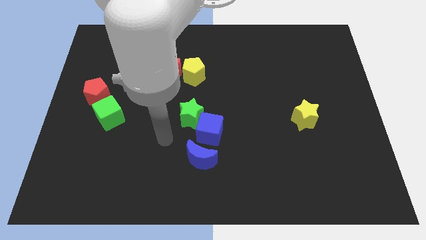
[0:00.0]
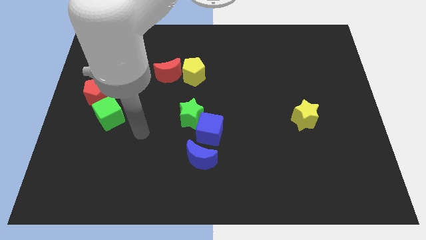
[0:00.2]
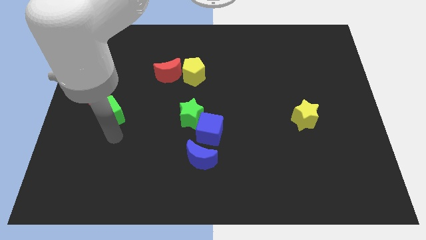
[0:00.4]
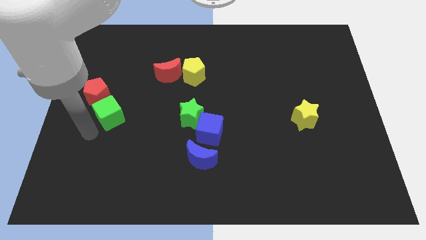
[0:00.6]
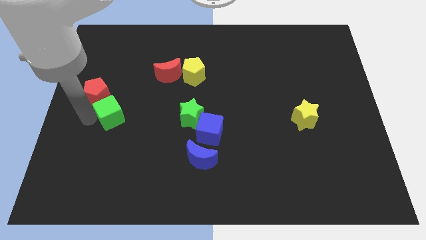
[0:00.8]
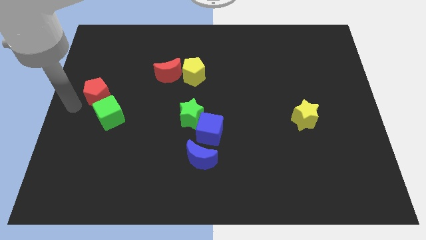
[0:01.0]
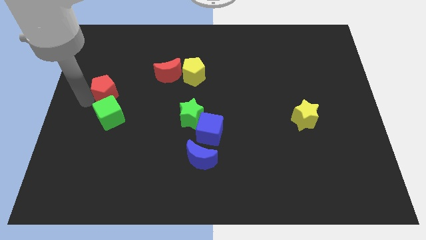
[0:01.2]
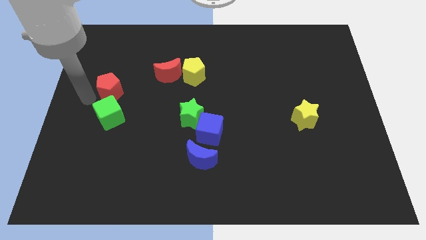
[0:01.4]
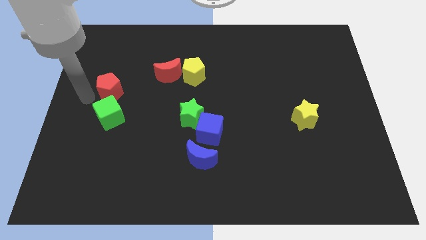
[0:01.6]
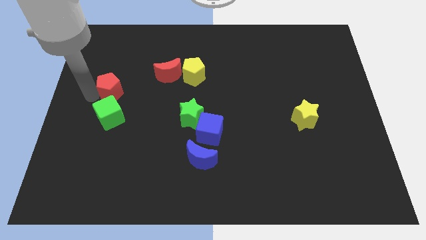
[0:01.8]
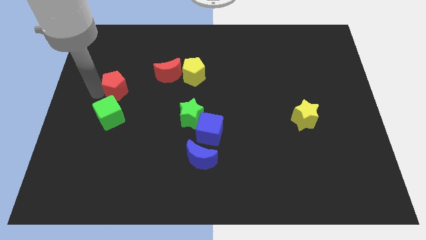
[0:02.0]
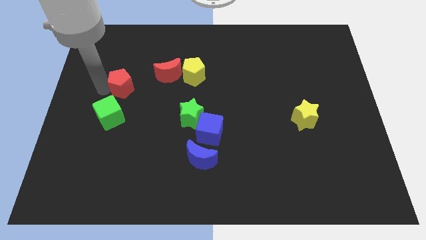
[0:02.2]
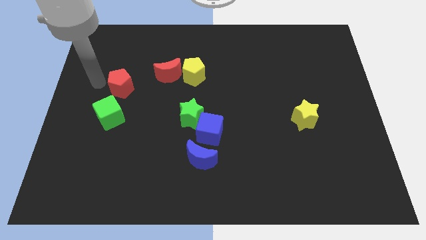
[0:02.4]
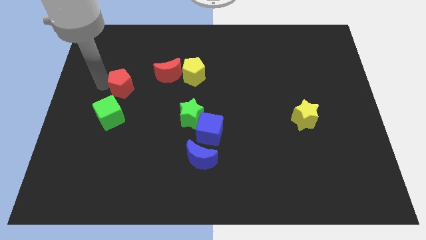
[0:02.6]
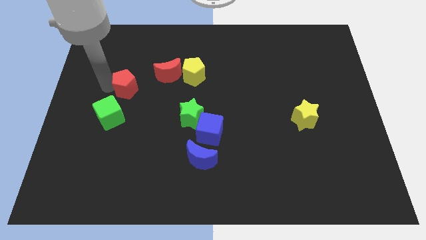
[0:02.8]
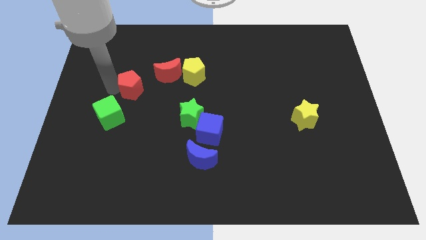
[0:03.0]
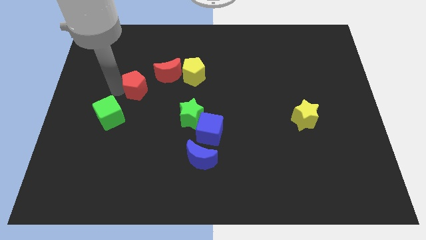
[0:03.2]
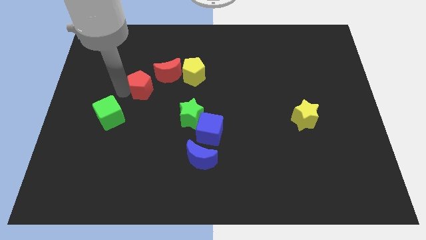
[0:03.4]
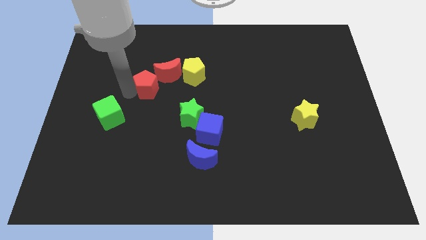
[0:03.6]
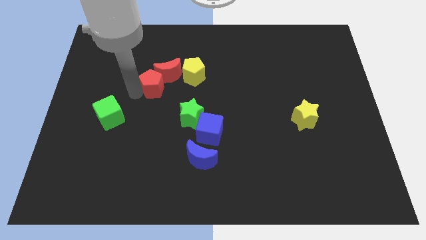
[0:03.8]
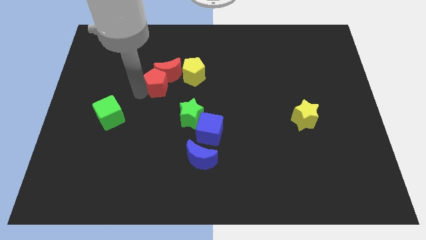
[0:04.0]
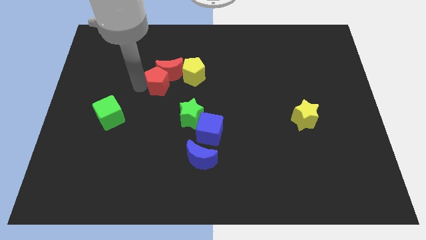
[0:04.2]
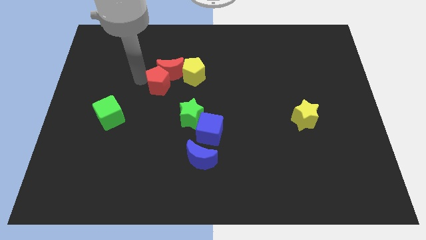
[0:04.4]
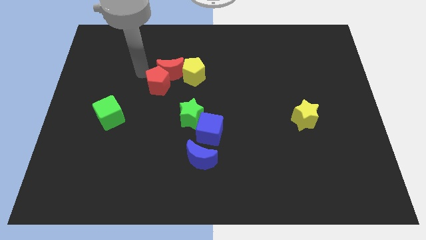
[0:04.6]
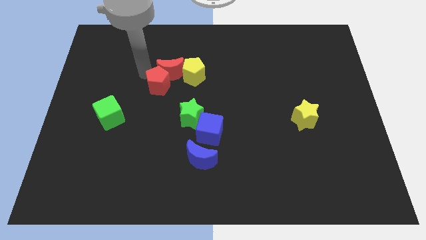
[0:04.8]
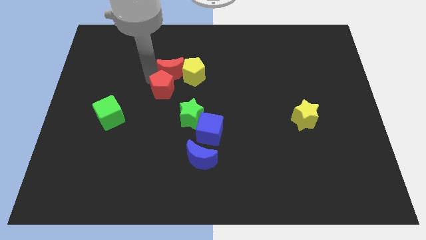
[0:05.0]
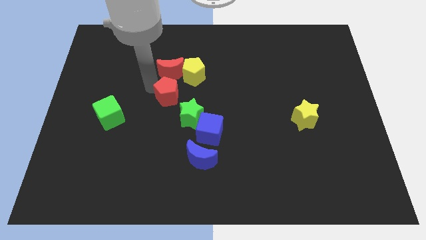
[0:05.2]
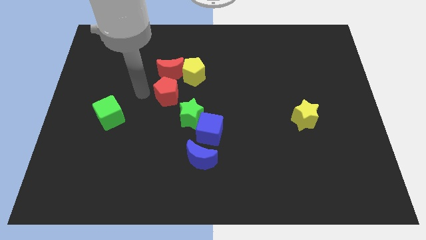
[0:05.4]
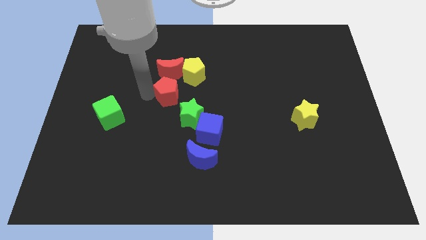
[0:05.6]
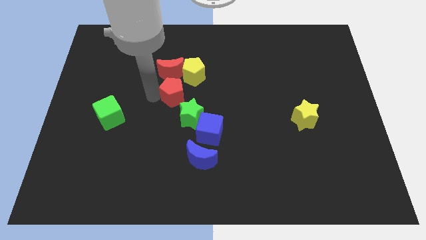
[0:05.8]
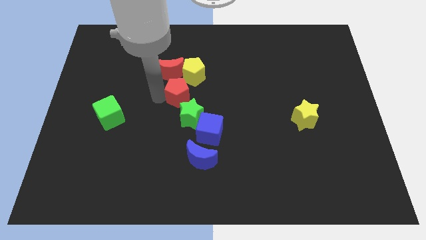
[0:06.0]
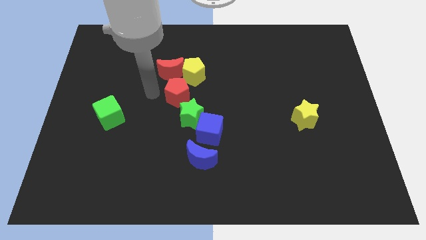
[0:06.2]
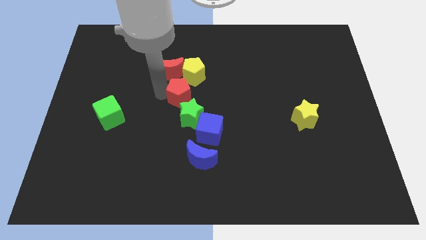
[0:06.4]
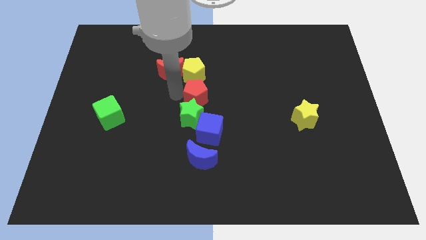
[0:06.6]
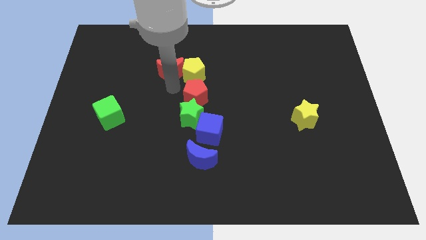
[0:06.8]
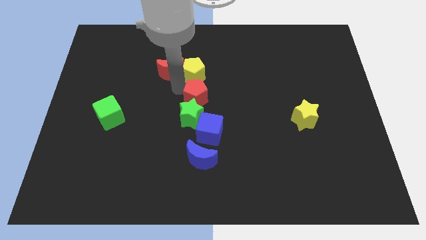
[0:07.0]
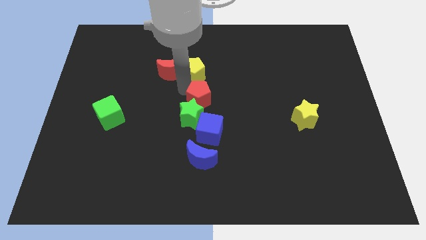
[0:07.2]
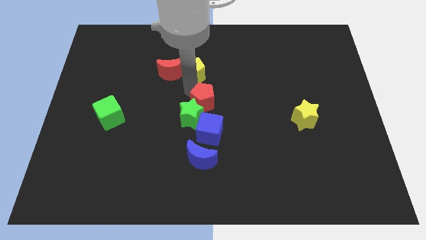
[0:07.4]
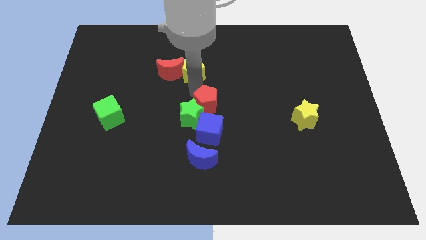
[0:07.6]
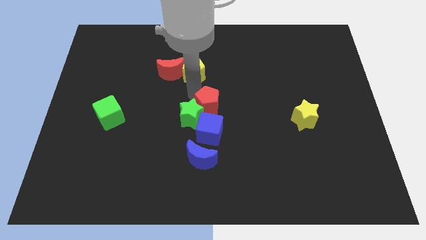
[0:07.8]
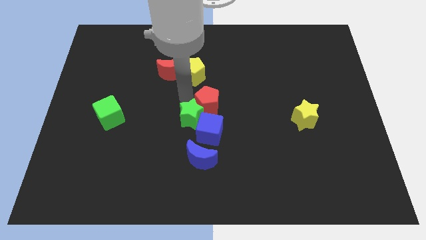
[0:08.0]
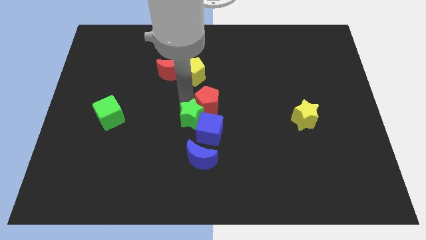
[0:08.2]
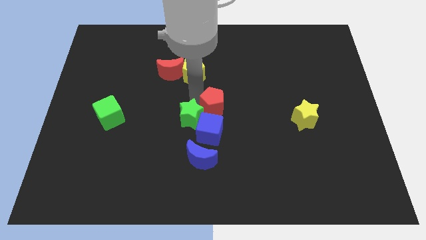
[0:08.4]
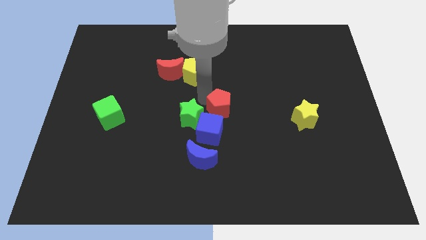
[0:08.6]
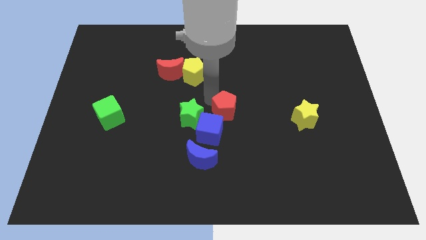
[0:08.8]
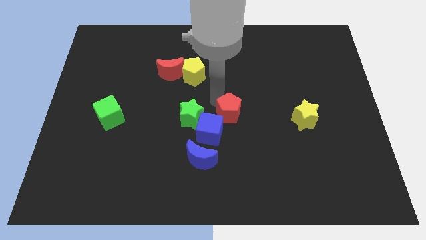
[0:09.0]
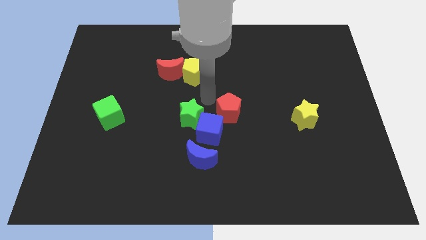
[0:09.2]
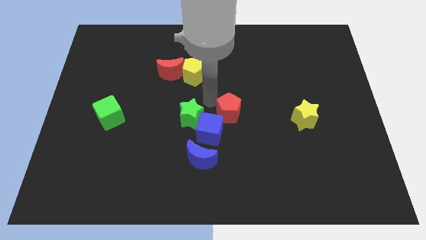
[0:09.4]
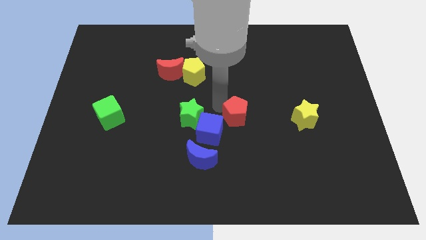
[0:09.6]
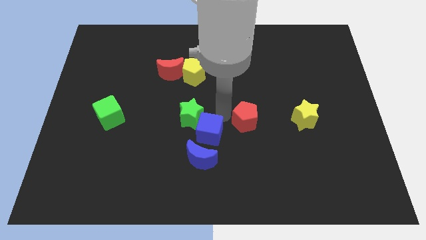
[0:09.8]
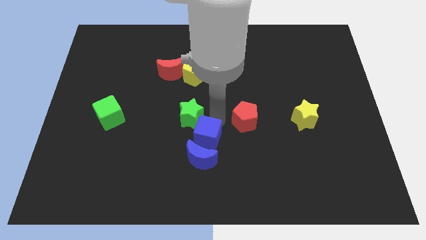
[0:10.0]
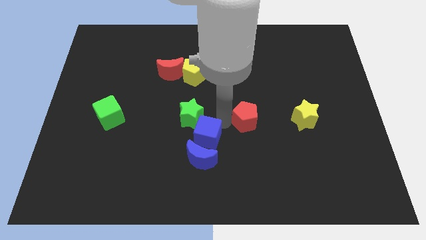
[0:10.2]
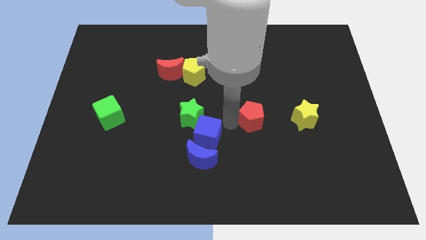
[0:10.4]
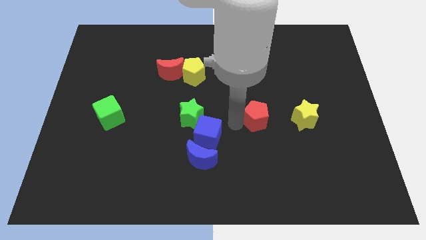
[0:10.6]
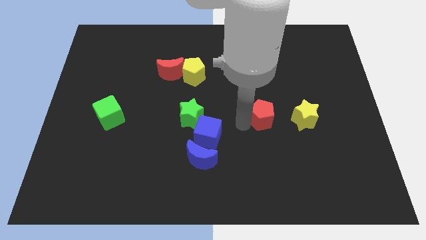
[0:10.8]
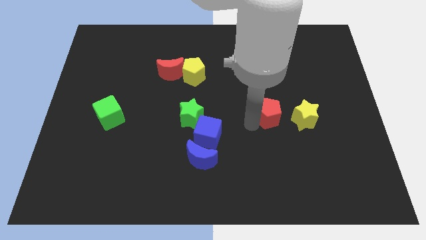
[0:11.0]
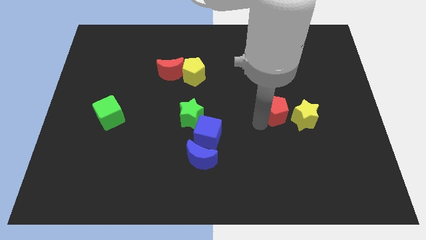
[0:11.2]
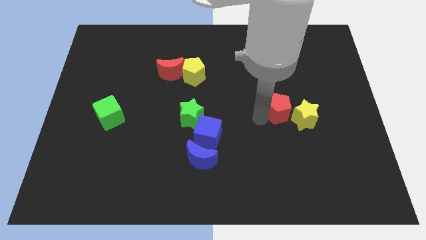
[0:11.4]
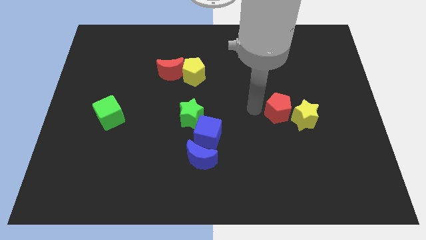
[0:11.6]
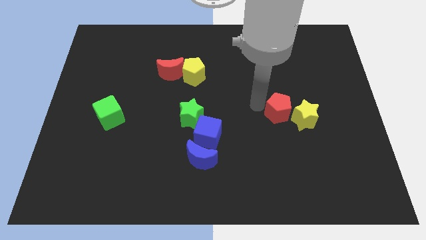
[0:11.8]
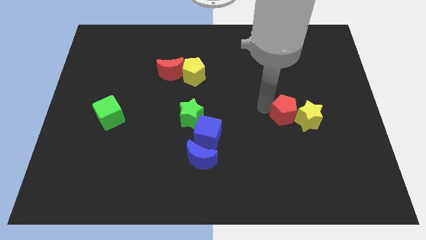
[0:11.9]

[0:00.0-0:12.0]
put the red pentagon close to the yellow star

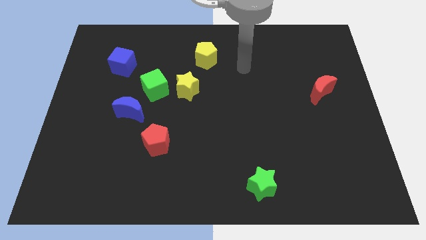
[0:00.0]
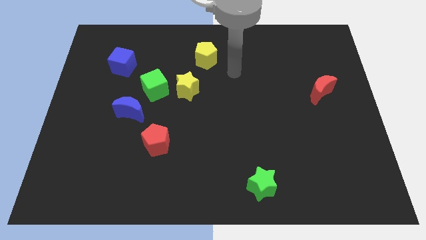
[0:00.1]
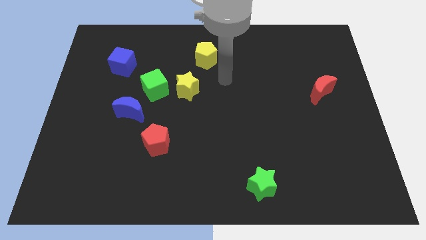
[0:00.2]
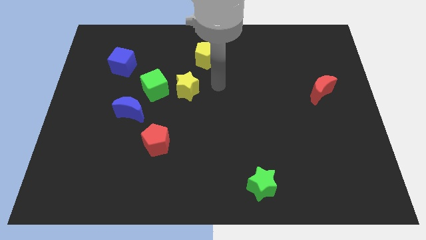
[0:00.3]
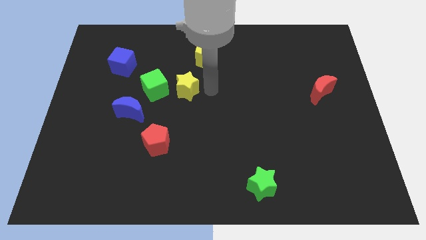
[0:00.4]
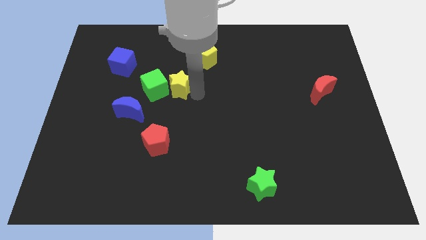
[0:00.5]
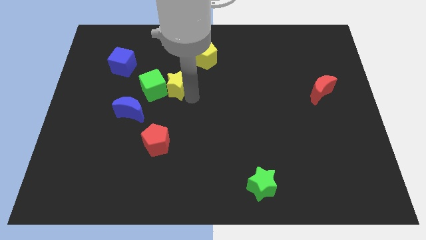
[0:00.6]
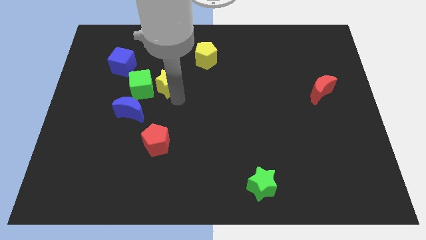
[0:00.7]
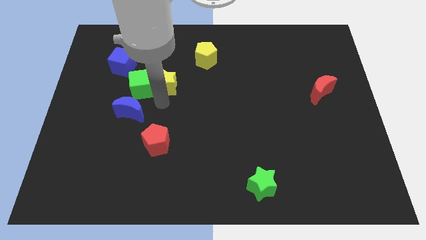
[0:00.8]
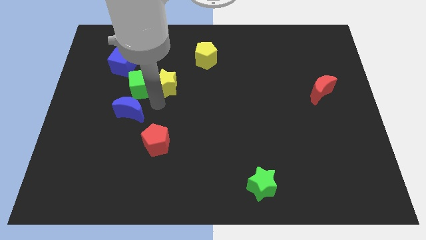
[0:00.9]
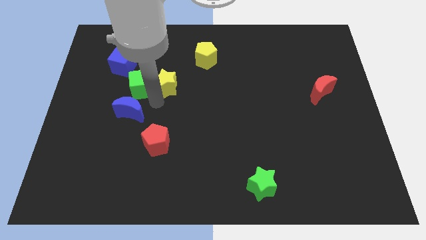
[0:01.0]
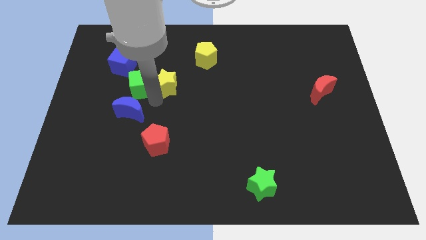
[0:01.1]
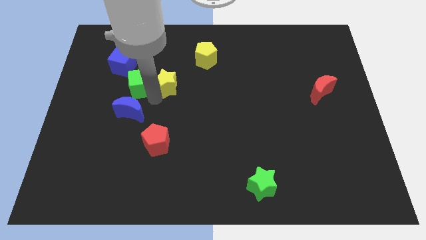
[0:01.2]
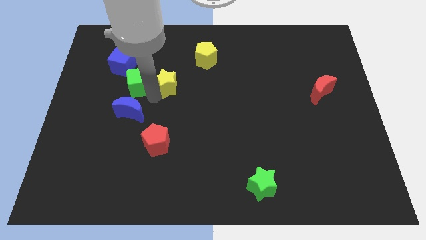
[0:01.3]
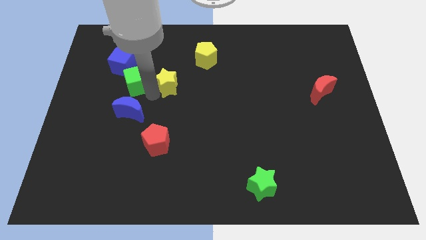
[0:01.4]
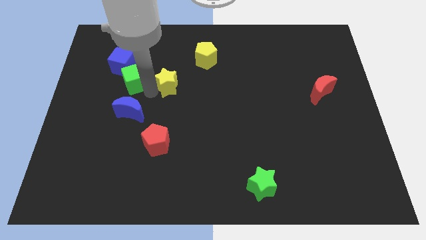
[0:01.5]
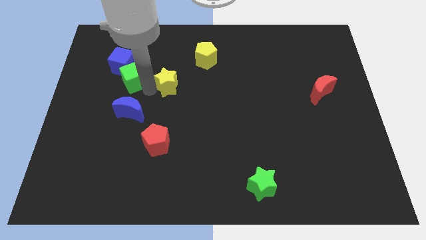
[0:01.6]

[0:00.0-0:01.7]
slide the green cube to the blue cube
